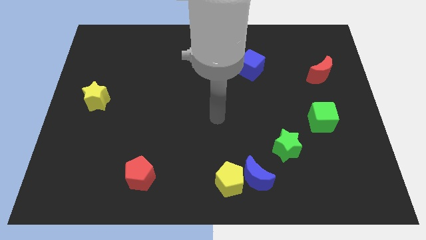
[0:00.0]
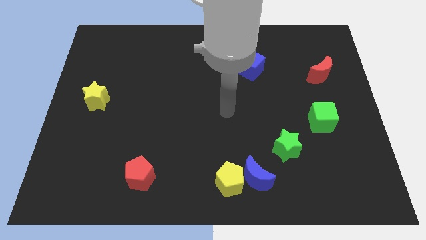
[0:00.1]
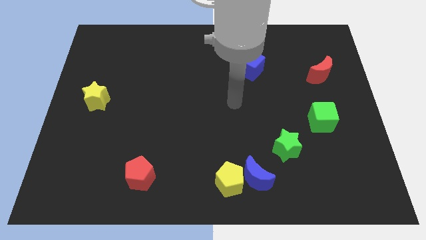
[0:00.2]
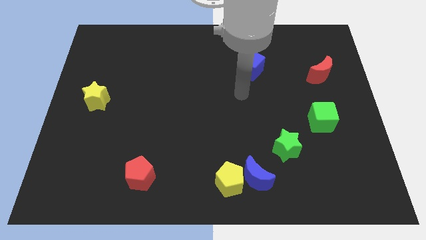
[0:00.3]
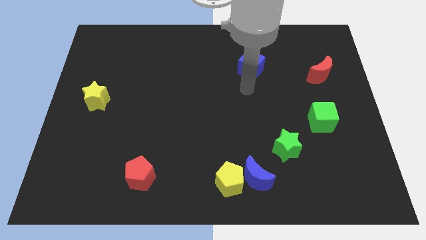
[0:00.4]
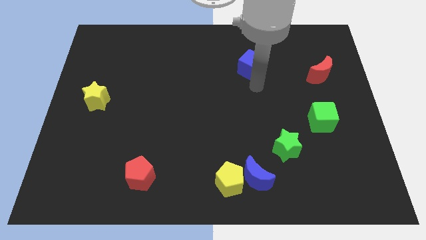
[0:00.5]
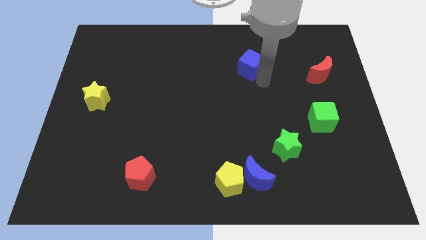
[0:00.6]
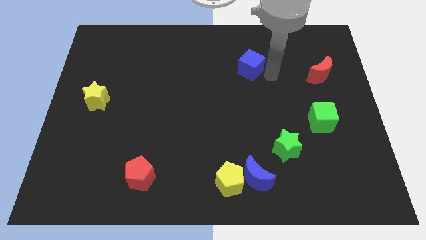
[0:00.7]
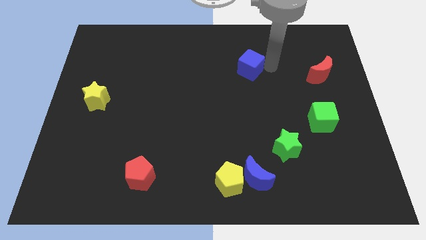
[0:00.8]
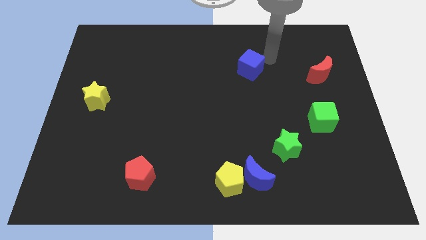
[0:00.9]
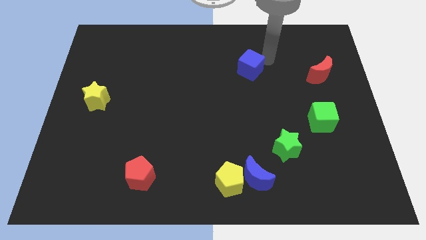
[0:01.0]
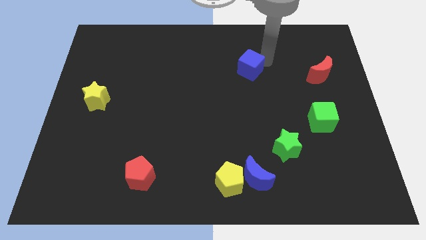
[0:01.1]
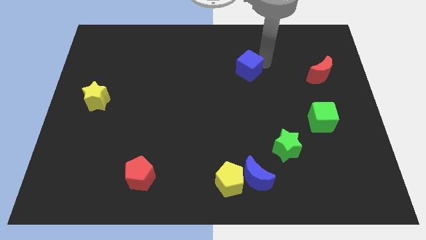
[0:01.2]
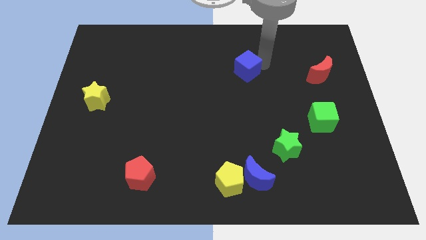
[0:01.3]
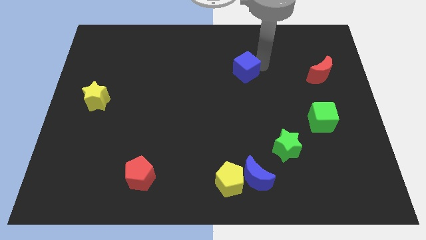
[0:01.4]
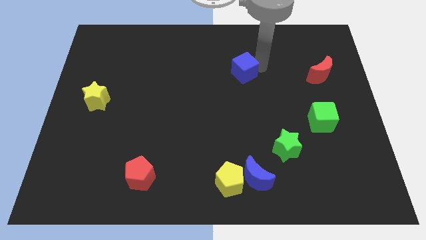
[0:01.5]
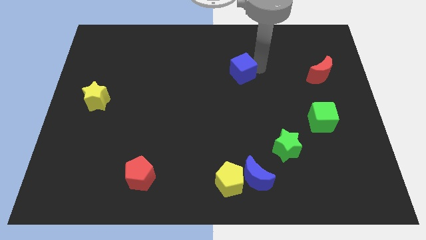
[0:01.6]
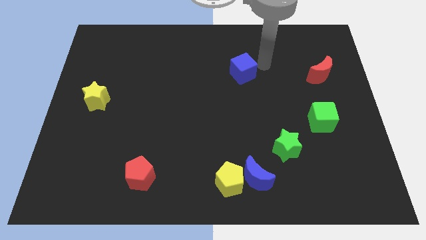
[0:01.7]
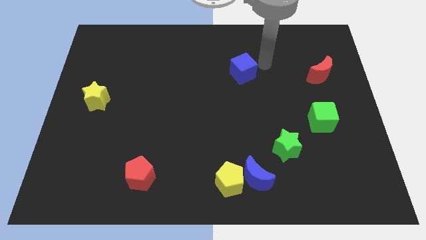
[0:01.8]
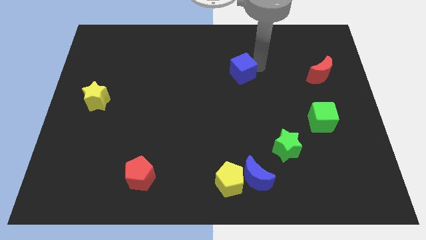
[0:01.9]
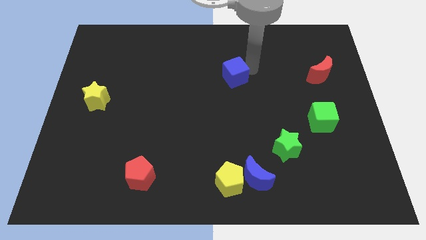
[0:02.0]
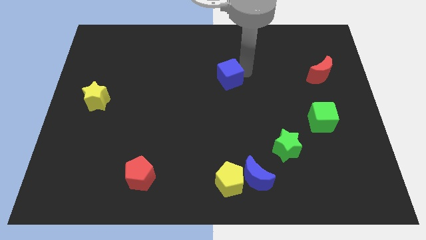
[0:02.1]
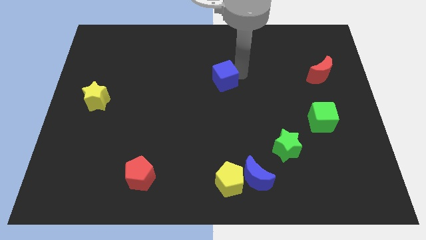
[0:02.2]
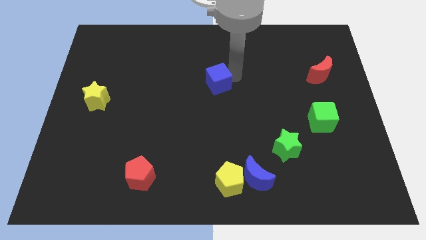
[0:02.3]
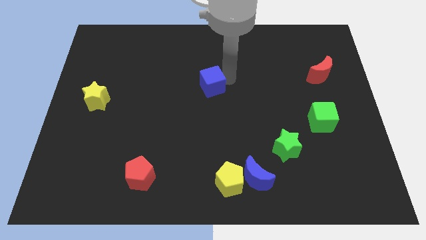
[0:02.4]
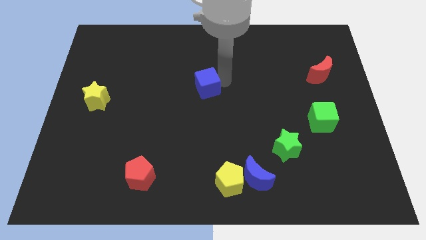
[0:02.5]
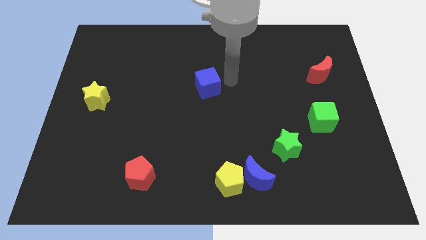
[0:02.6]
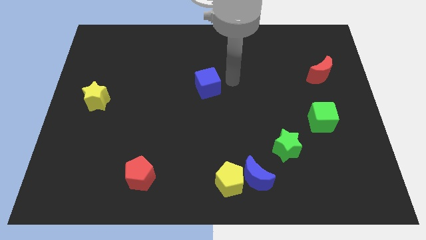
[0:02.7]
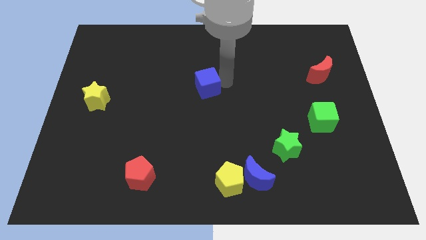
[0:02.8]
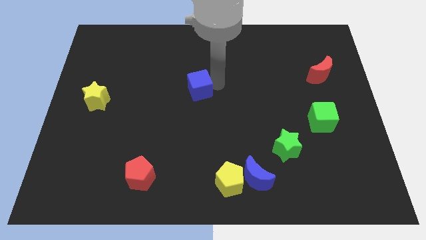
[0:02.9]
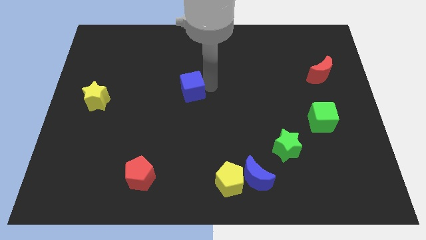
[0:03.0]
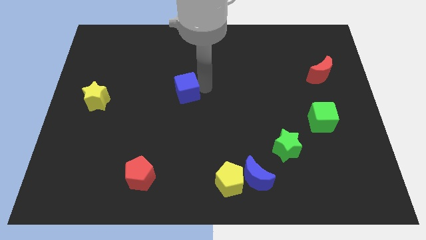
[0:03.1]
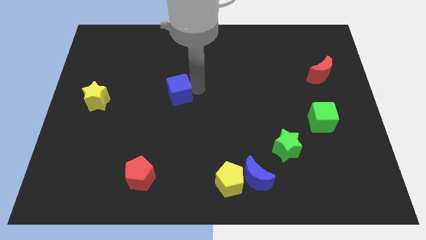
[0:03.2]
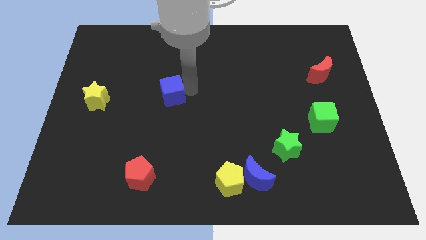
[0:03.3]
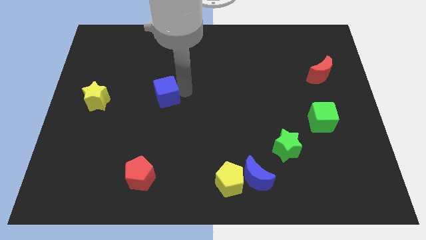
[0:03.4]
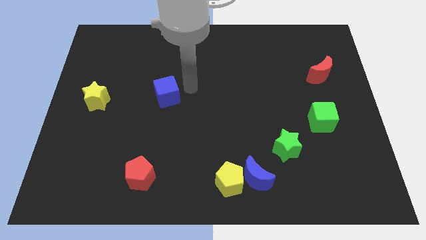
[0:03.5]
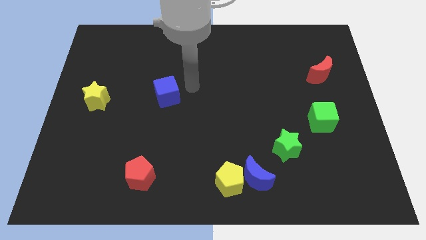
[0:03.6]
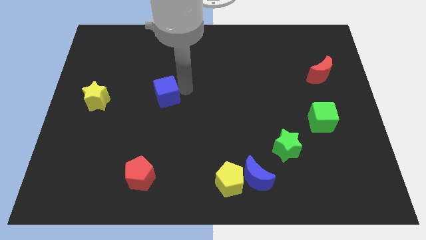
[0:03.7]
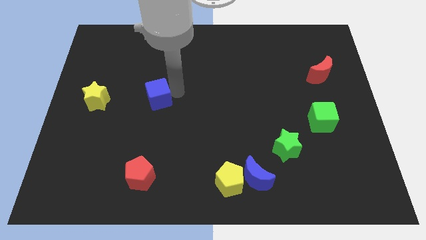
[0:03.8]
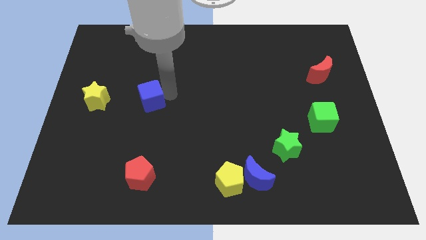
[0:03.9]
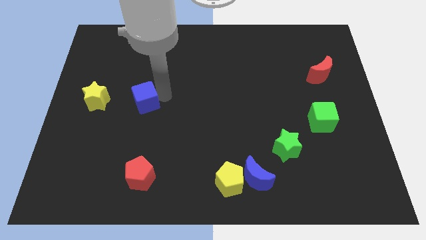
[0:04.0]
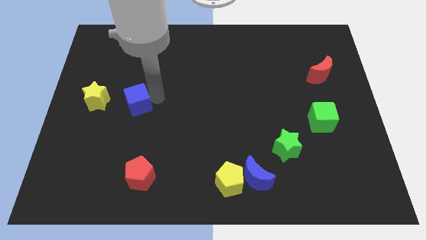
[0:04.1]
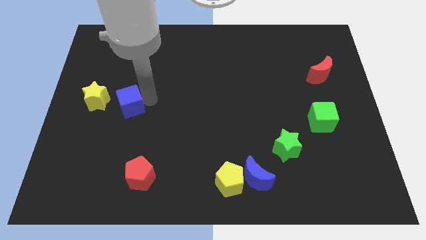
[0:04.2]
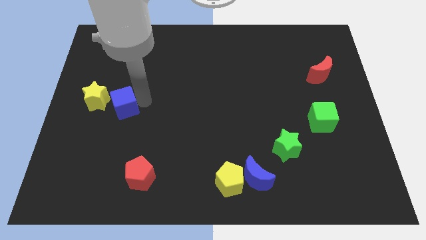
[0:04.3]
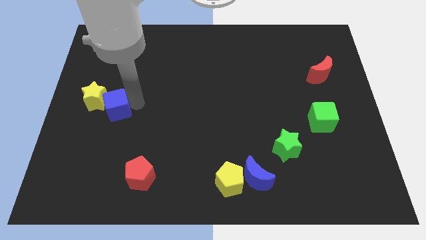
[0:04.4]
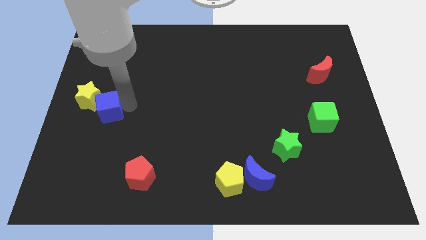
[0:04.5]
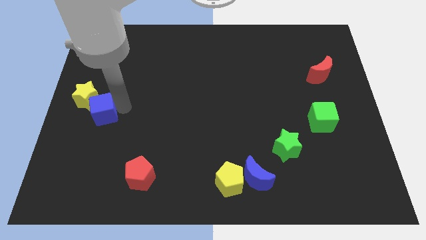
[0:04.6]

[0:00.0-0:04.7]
move the blue cube to the left side of the board

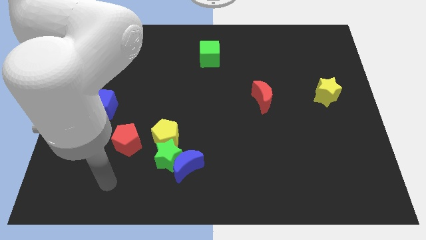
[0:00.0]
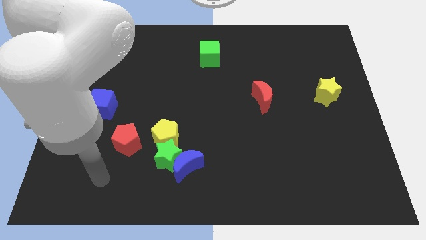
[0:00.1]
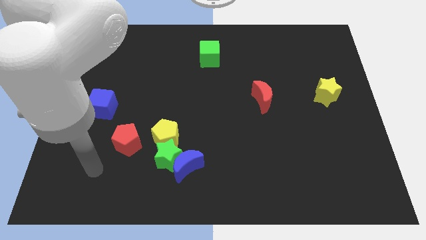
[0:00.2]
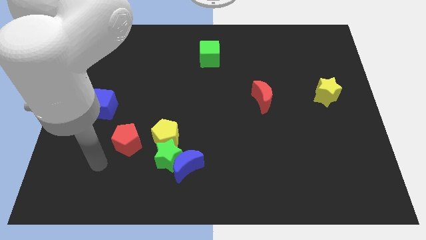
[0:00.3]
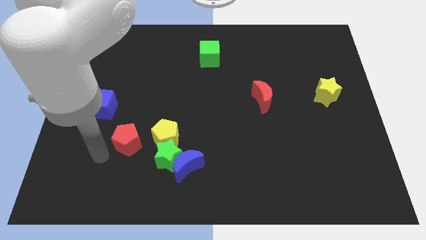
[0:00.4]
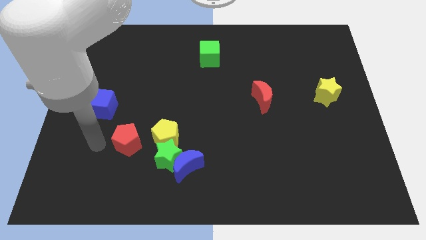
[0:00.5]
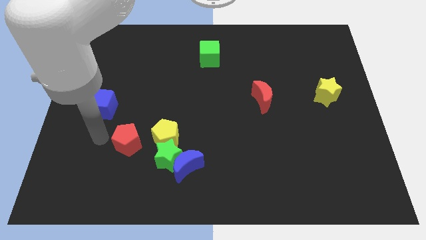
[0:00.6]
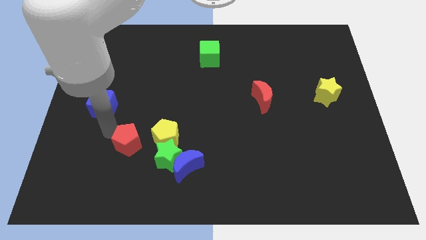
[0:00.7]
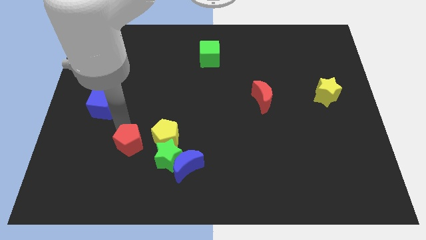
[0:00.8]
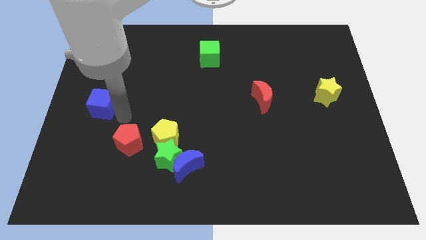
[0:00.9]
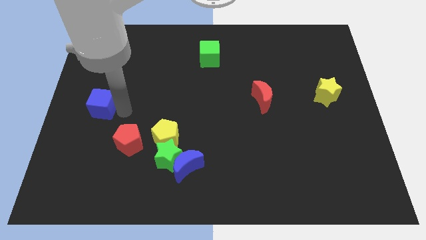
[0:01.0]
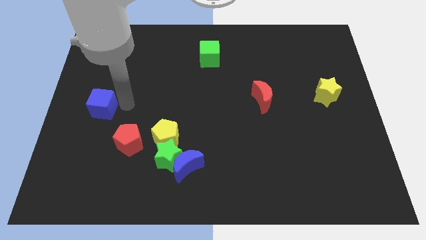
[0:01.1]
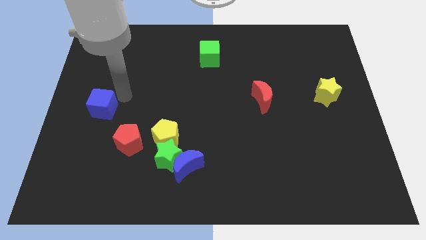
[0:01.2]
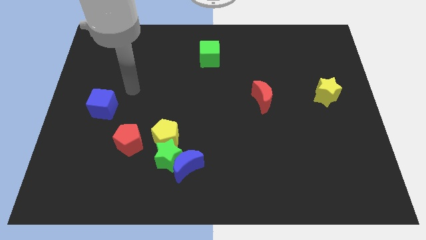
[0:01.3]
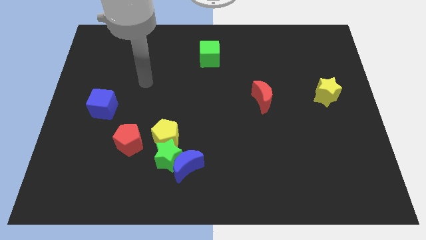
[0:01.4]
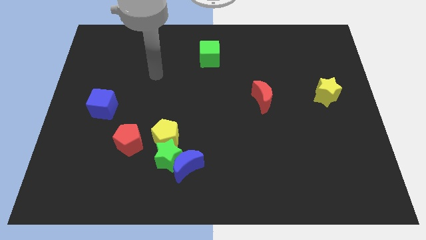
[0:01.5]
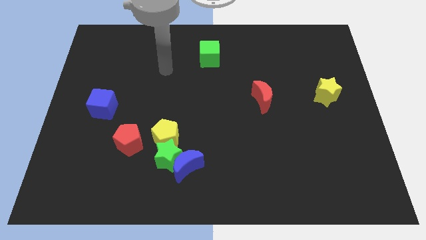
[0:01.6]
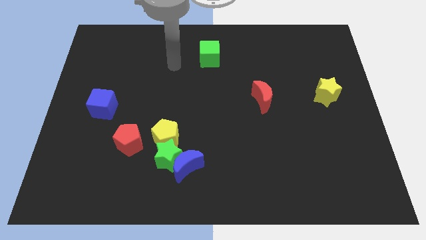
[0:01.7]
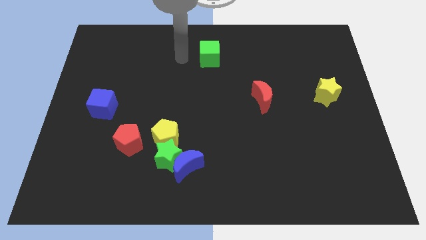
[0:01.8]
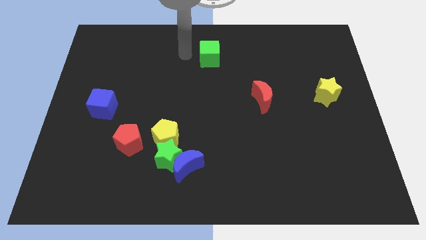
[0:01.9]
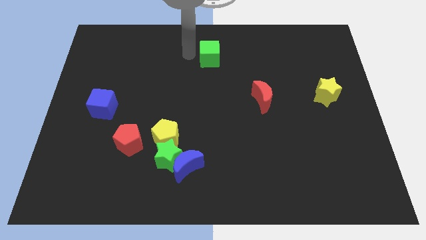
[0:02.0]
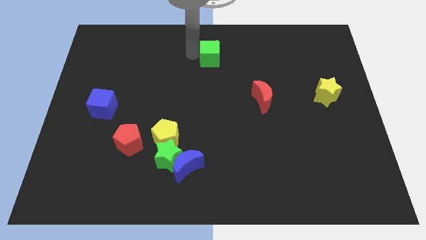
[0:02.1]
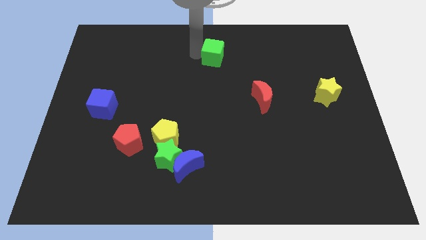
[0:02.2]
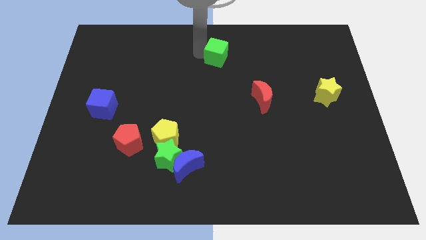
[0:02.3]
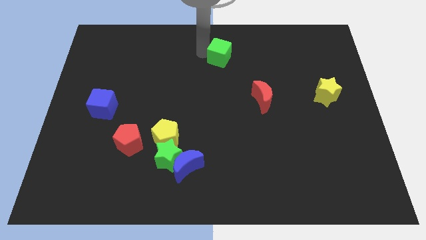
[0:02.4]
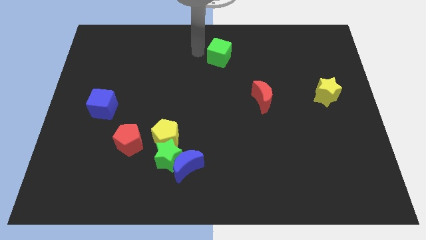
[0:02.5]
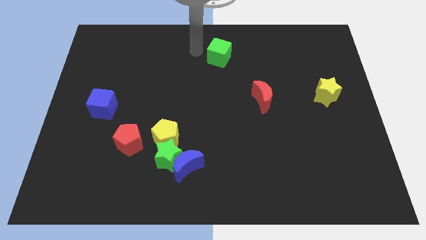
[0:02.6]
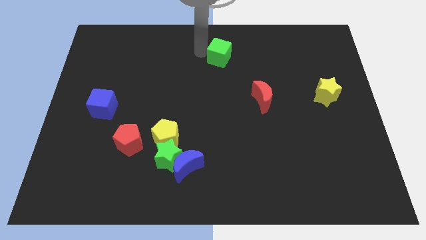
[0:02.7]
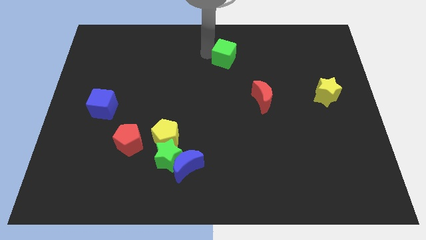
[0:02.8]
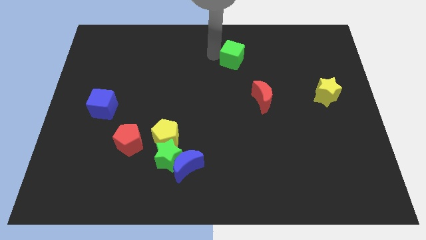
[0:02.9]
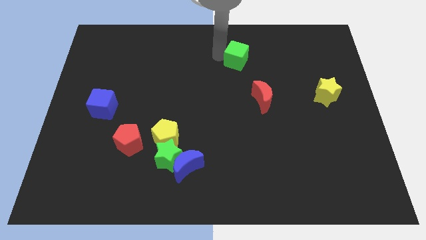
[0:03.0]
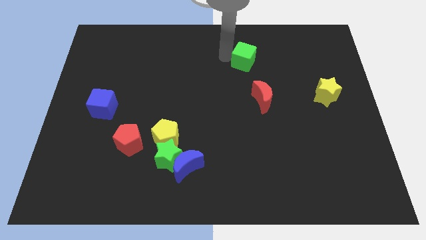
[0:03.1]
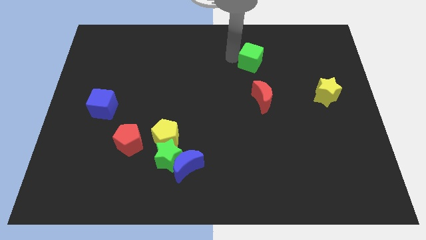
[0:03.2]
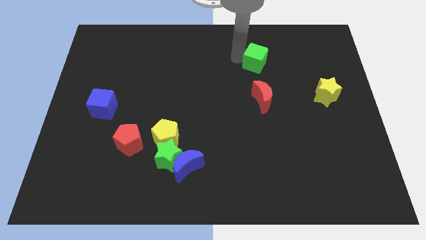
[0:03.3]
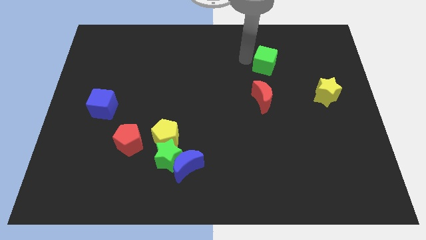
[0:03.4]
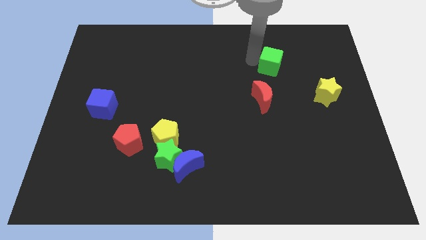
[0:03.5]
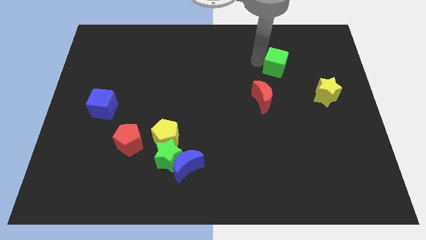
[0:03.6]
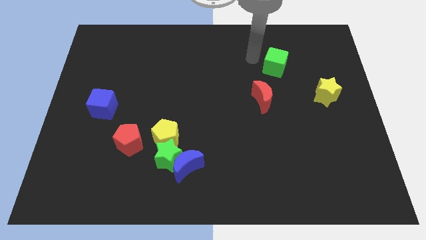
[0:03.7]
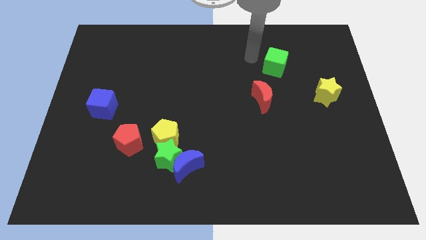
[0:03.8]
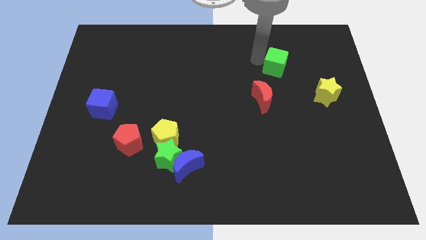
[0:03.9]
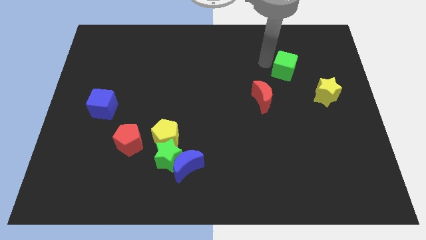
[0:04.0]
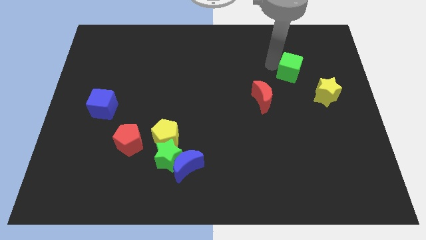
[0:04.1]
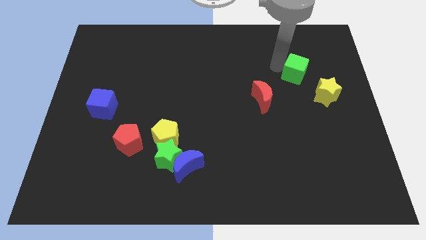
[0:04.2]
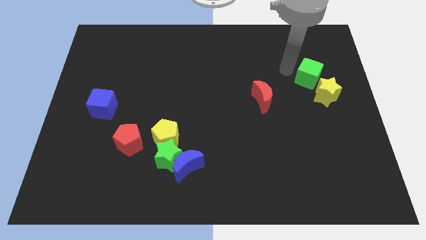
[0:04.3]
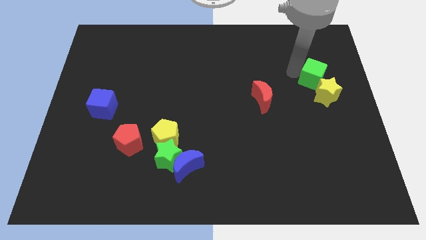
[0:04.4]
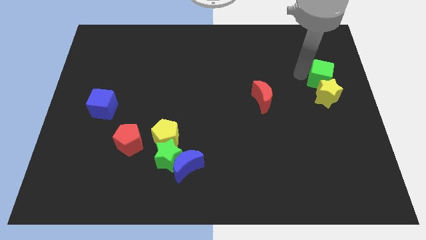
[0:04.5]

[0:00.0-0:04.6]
slide the green cube to the right side of the board
